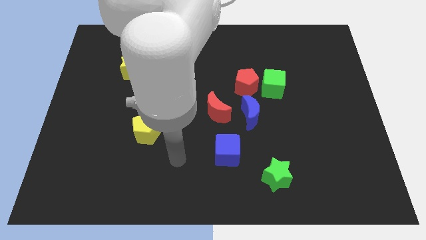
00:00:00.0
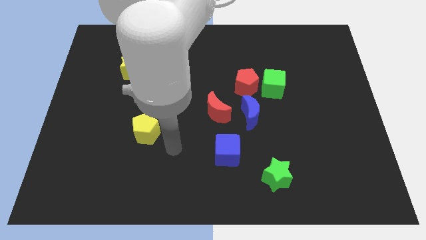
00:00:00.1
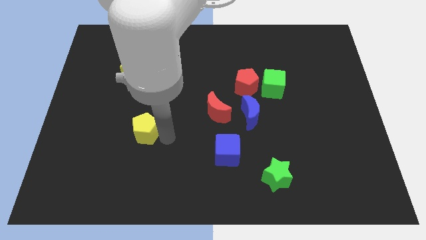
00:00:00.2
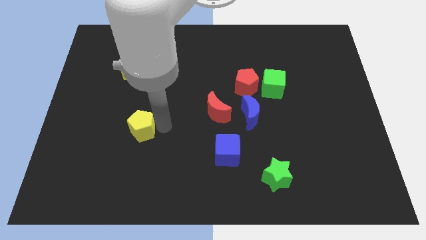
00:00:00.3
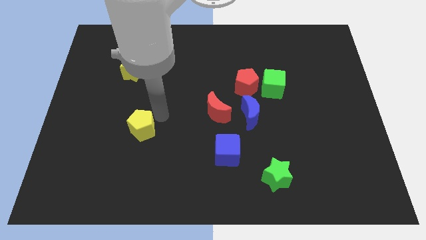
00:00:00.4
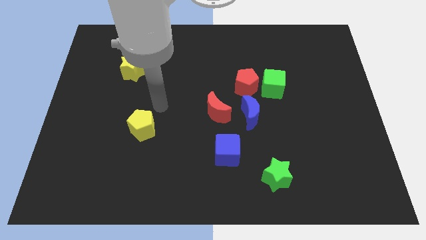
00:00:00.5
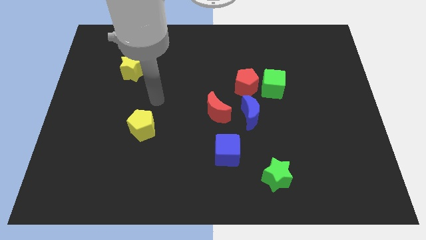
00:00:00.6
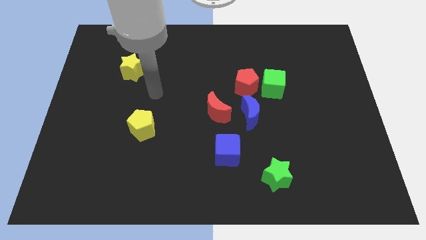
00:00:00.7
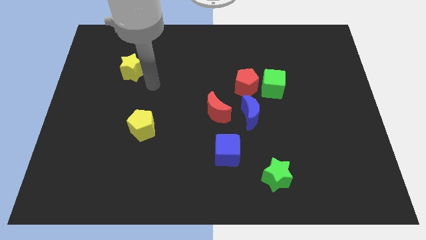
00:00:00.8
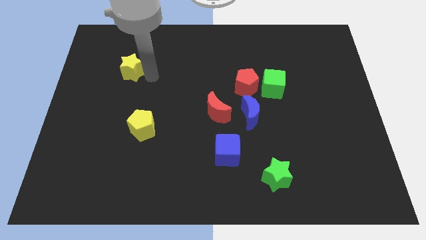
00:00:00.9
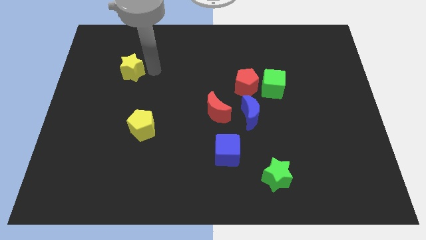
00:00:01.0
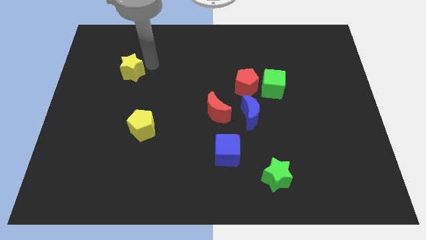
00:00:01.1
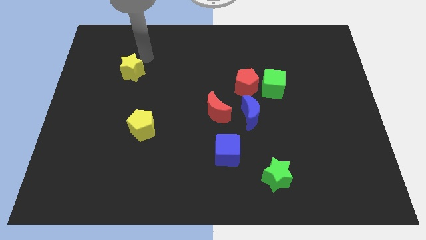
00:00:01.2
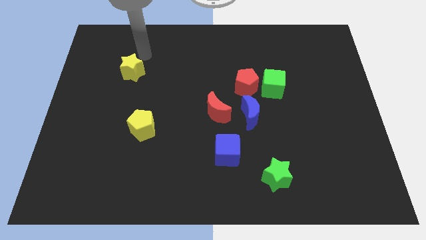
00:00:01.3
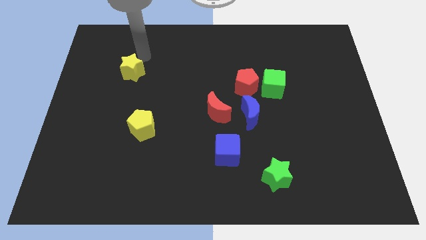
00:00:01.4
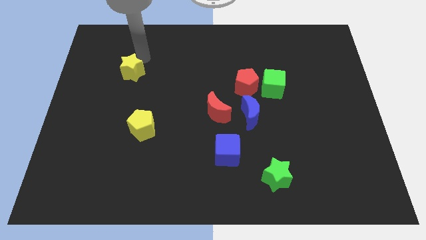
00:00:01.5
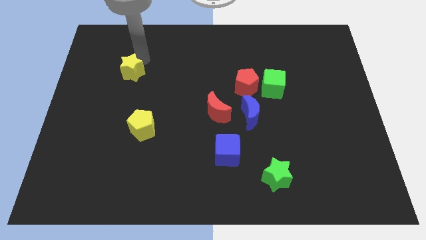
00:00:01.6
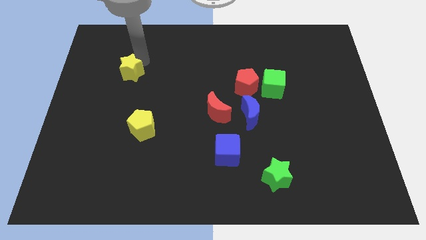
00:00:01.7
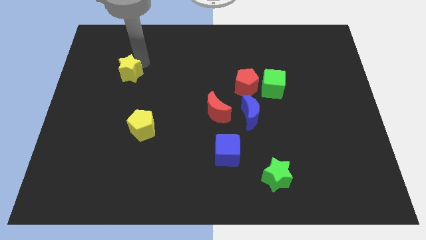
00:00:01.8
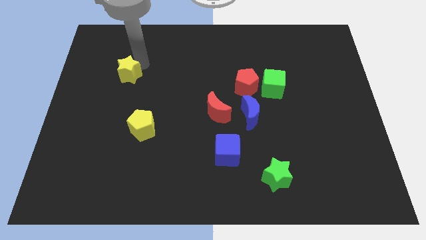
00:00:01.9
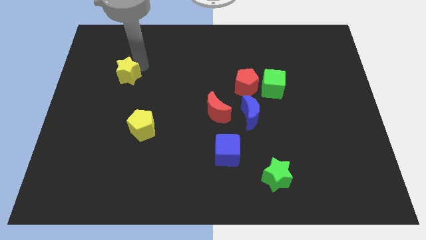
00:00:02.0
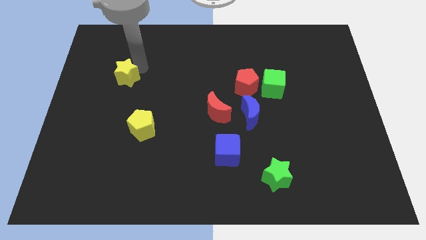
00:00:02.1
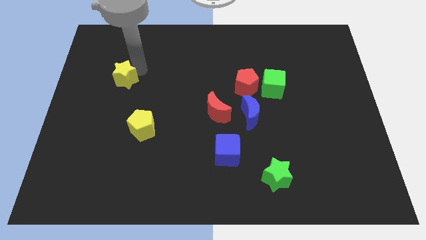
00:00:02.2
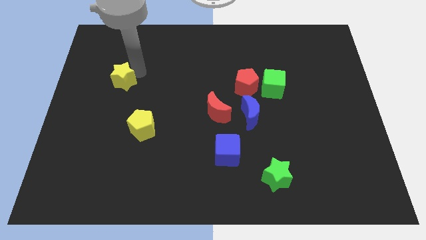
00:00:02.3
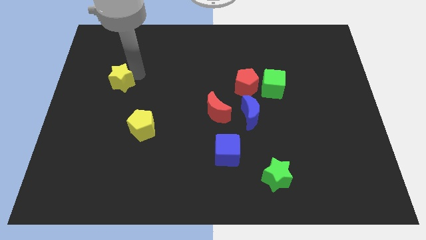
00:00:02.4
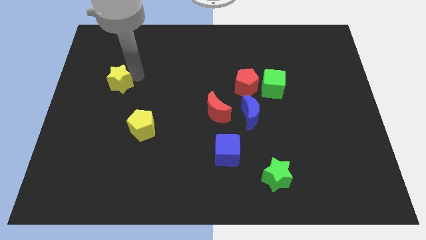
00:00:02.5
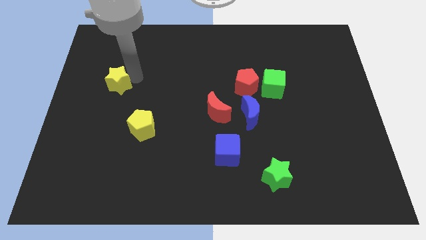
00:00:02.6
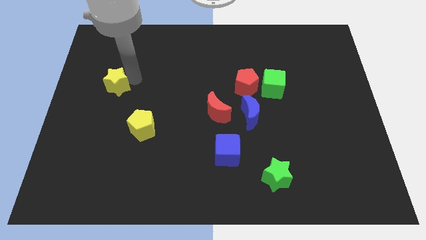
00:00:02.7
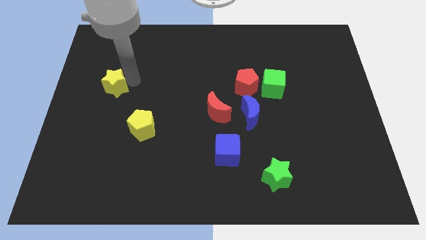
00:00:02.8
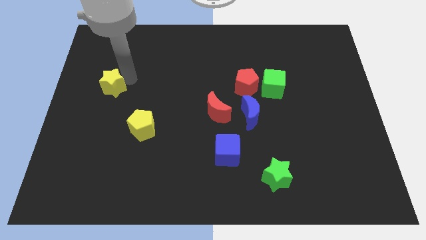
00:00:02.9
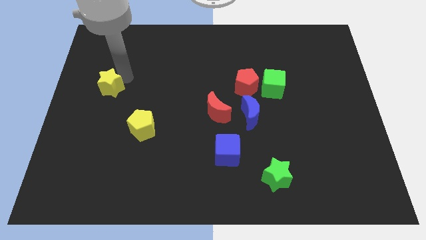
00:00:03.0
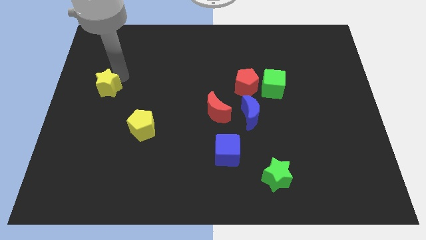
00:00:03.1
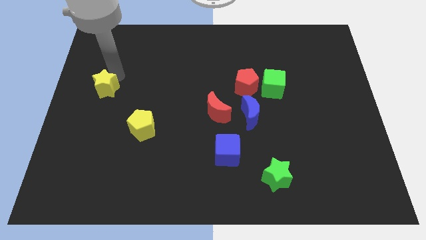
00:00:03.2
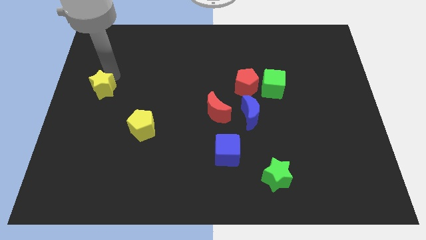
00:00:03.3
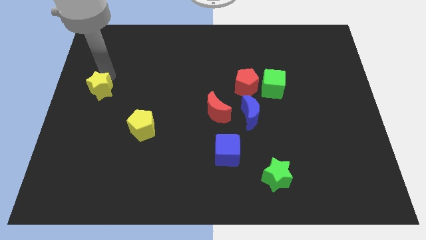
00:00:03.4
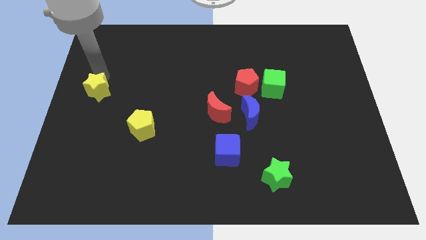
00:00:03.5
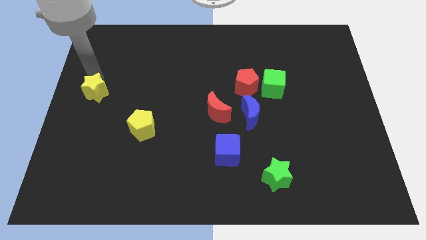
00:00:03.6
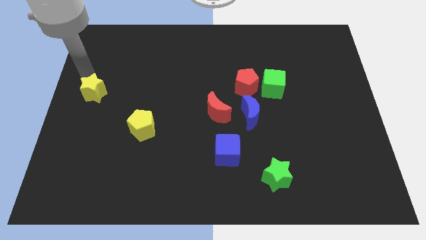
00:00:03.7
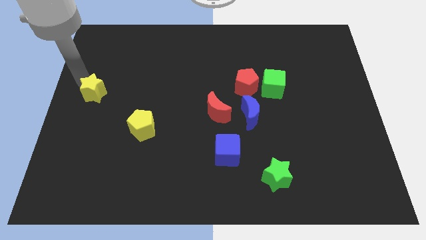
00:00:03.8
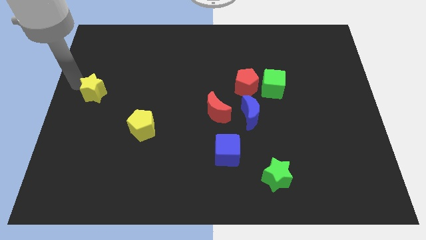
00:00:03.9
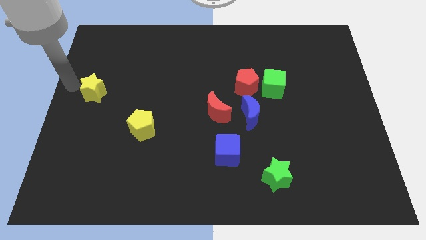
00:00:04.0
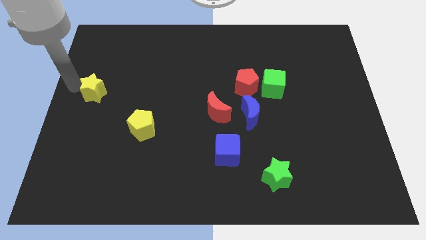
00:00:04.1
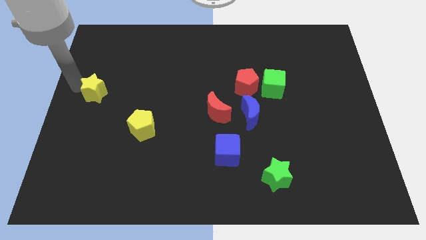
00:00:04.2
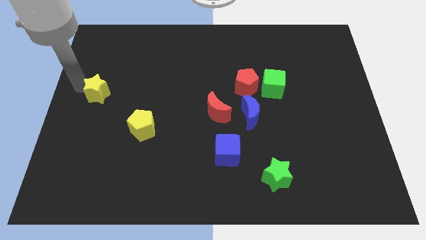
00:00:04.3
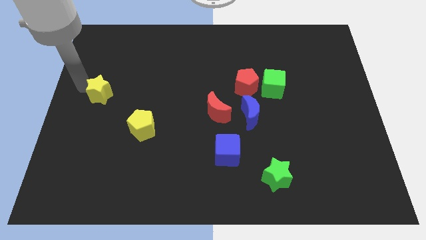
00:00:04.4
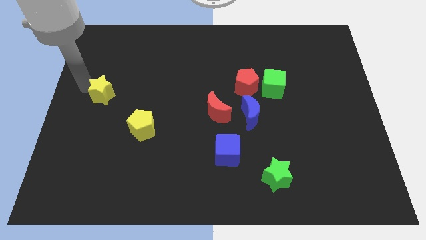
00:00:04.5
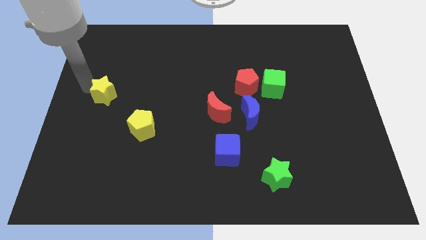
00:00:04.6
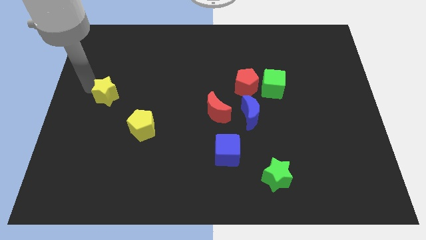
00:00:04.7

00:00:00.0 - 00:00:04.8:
slightly slide the yellow star down

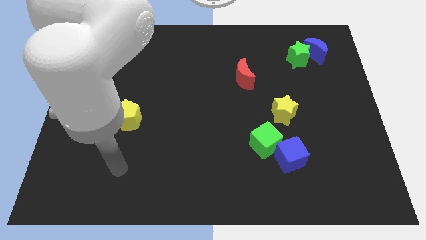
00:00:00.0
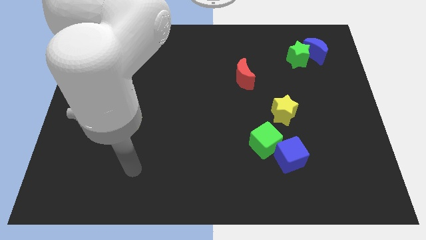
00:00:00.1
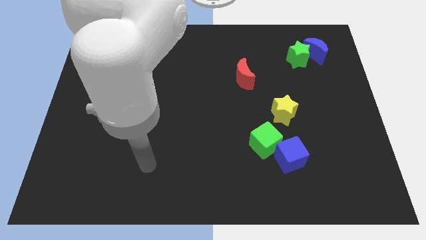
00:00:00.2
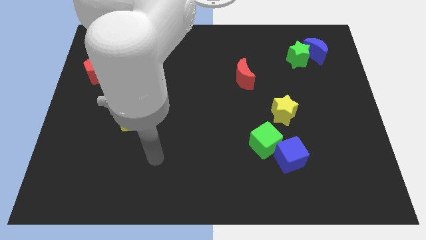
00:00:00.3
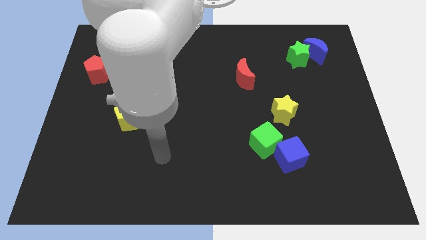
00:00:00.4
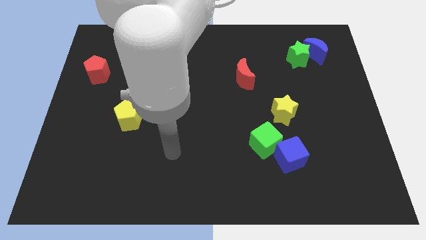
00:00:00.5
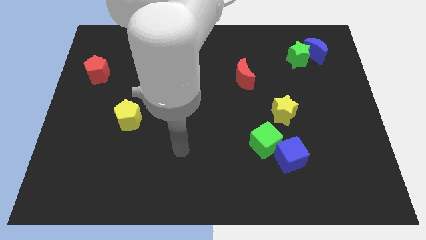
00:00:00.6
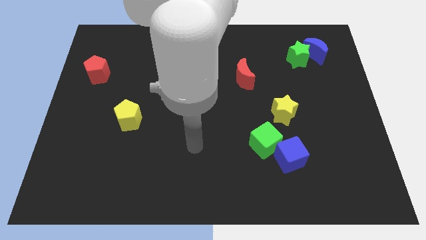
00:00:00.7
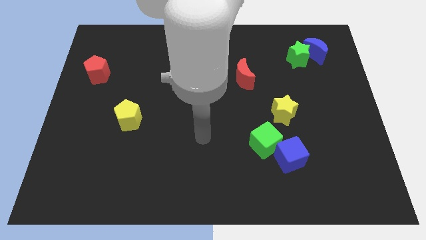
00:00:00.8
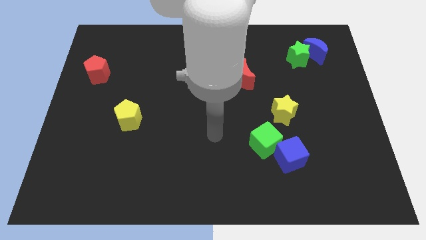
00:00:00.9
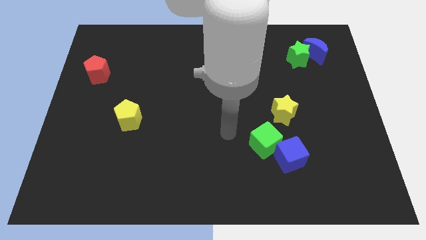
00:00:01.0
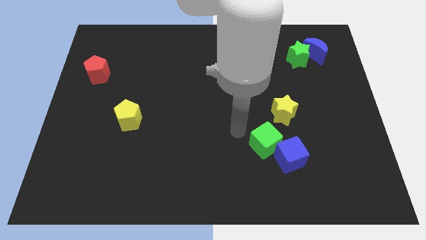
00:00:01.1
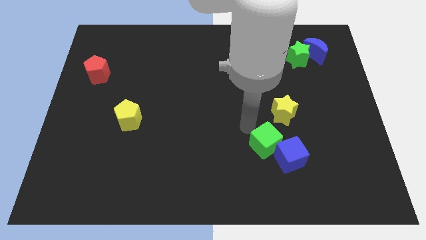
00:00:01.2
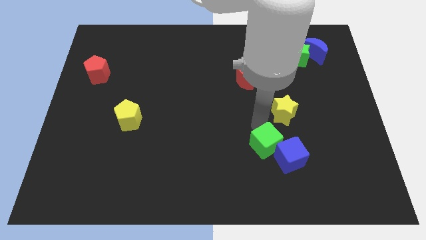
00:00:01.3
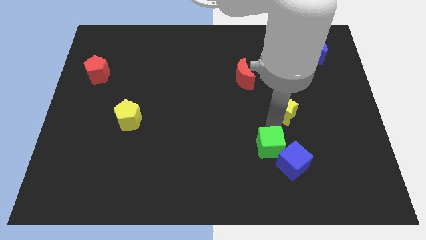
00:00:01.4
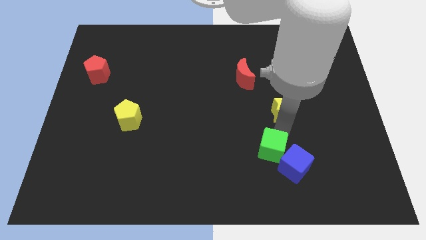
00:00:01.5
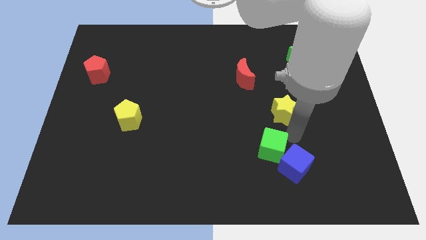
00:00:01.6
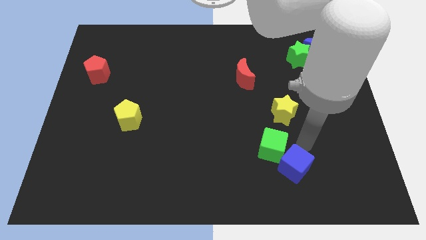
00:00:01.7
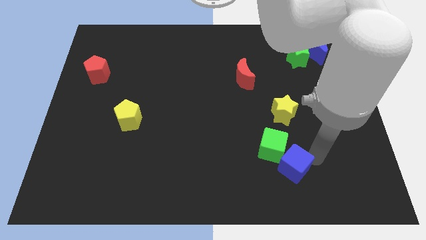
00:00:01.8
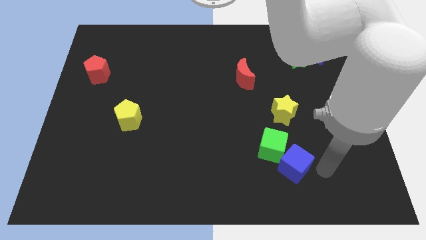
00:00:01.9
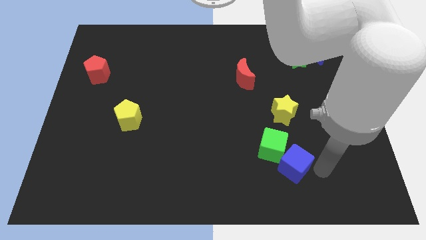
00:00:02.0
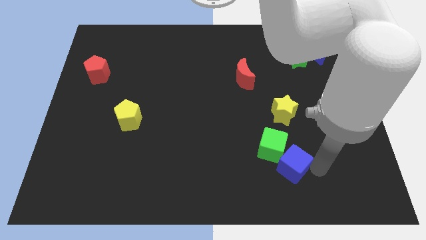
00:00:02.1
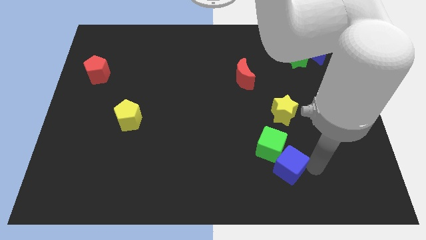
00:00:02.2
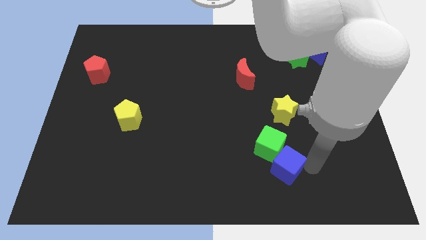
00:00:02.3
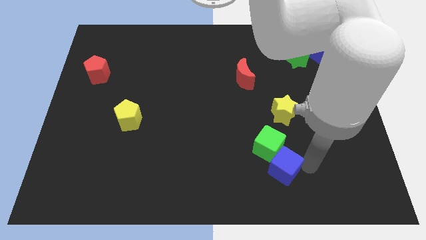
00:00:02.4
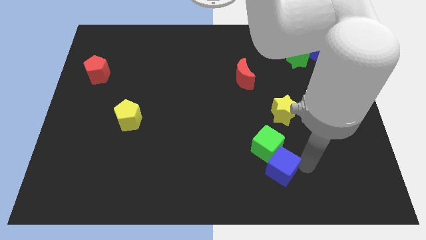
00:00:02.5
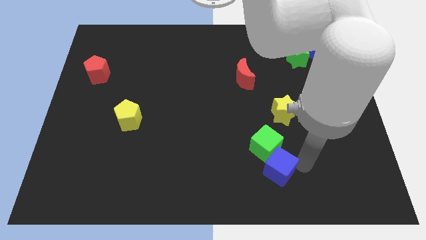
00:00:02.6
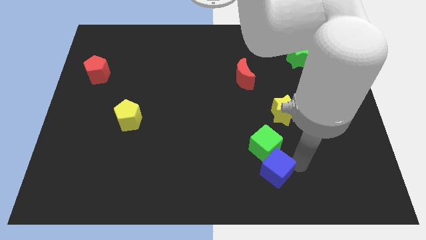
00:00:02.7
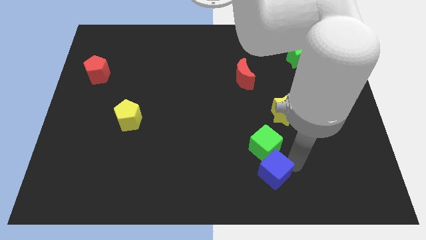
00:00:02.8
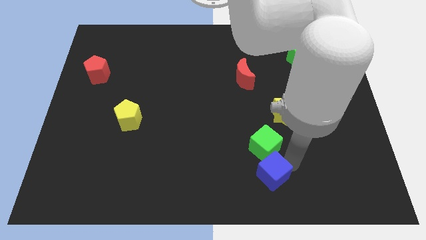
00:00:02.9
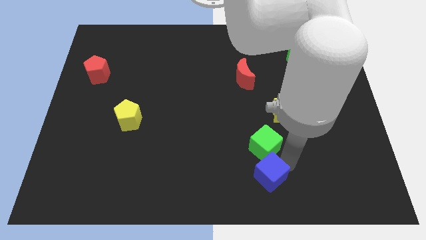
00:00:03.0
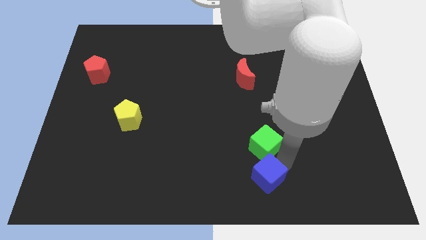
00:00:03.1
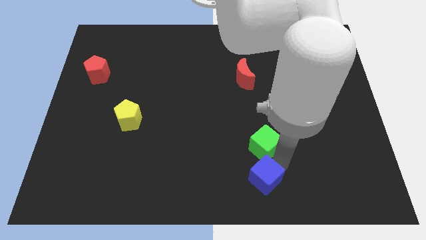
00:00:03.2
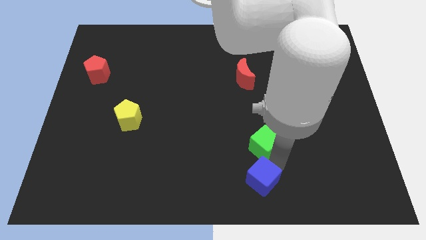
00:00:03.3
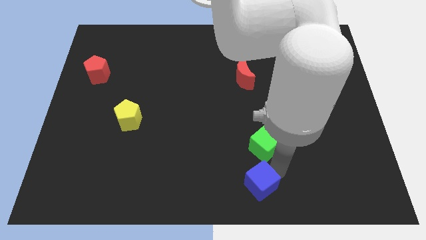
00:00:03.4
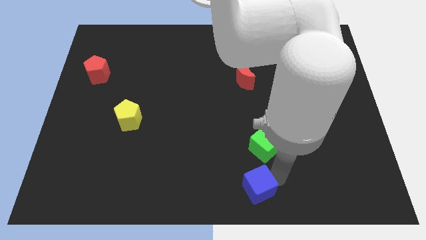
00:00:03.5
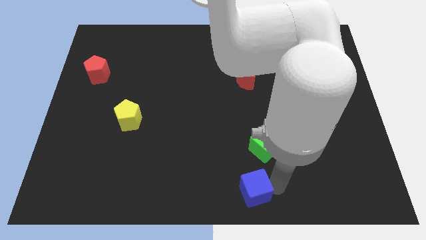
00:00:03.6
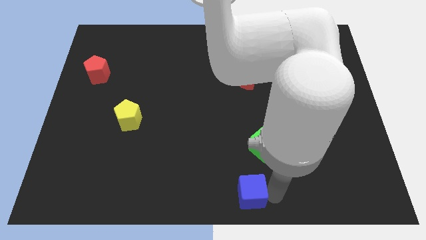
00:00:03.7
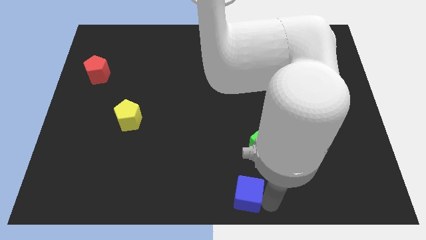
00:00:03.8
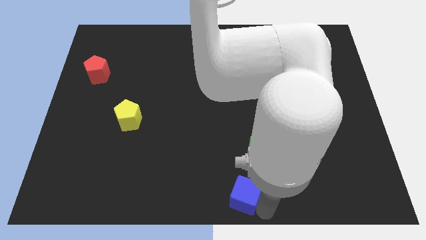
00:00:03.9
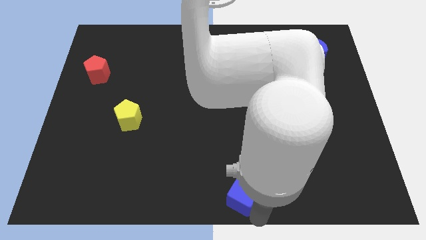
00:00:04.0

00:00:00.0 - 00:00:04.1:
push the blue cube slightly to the left
